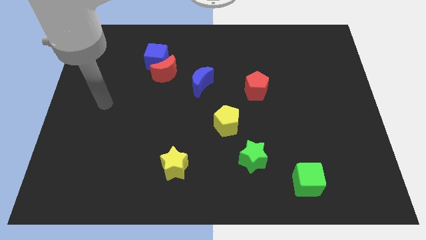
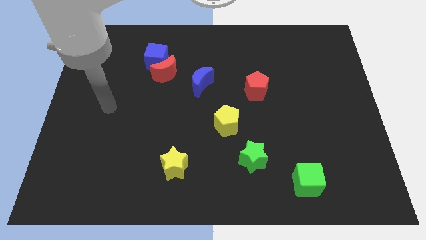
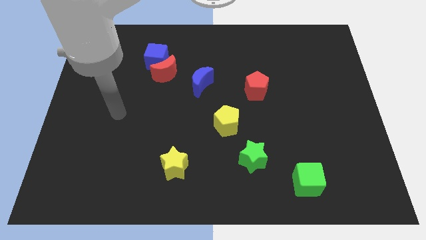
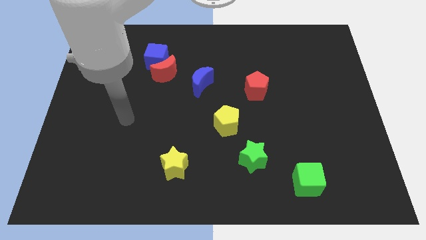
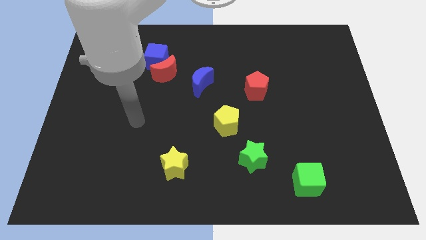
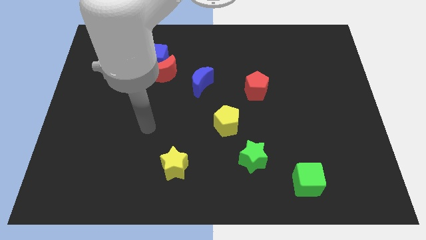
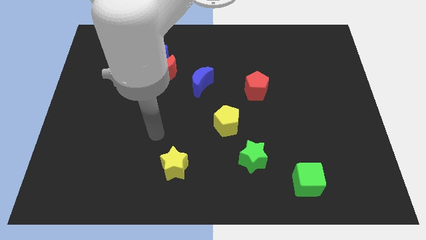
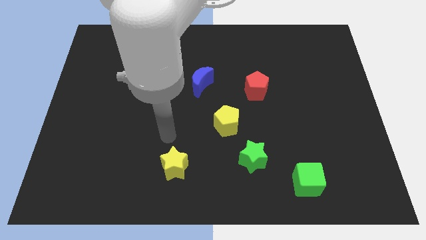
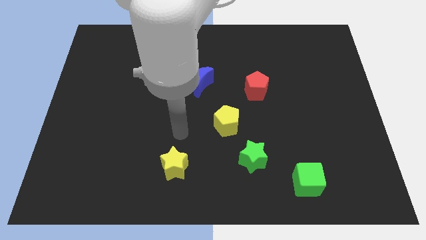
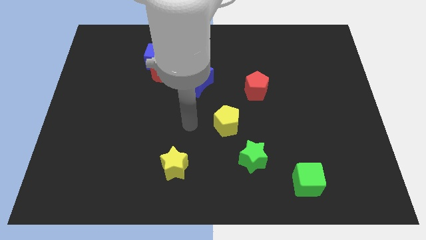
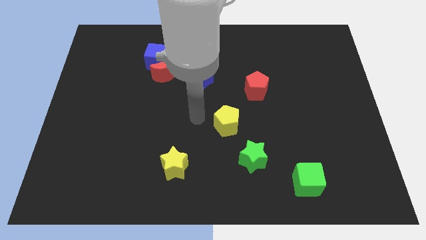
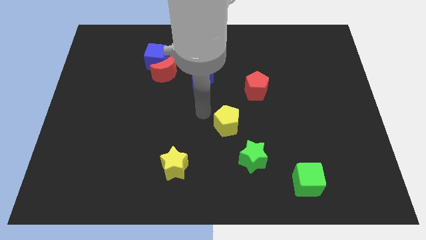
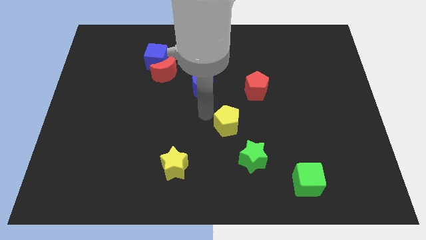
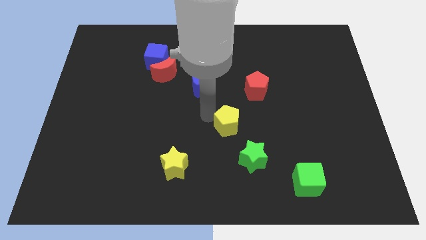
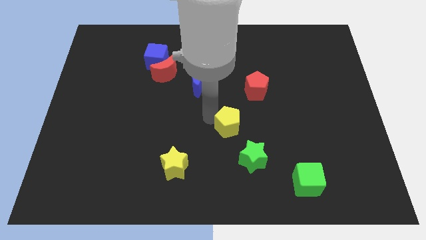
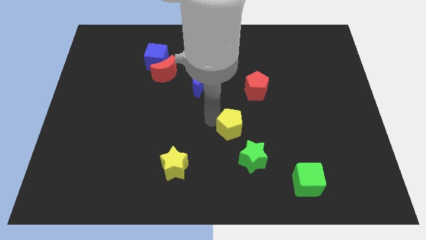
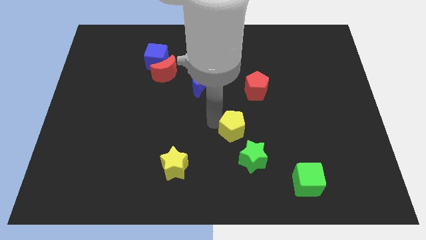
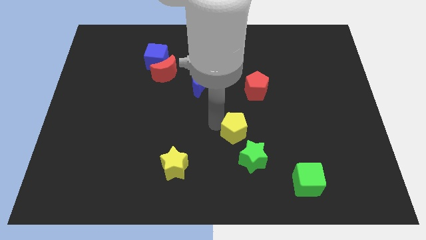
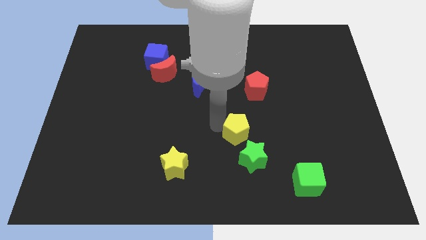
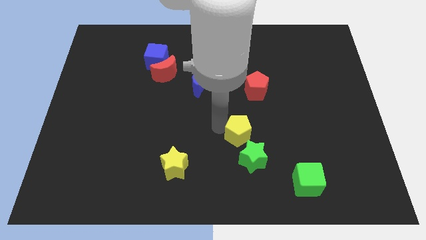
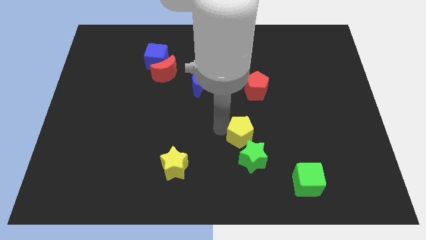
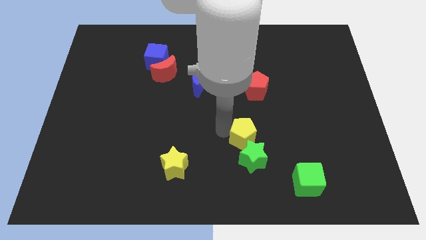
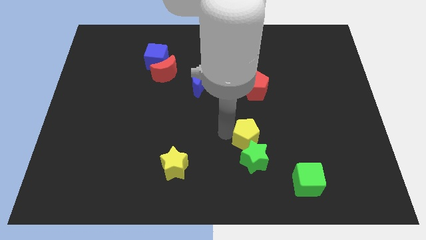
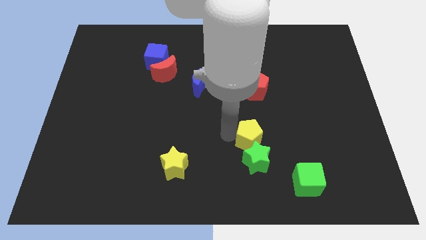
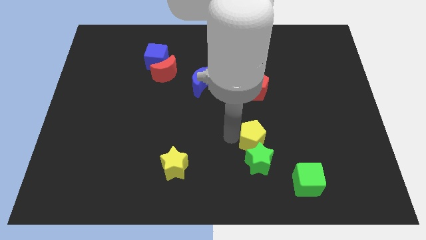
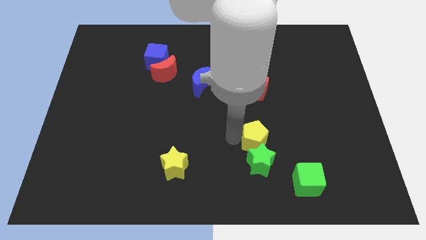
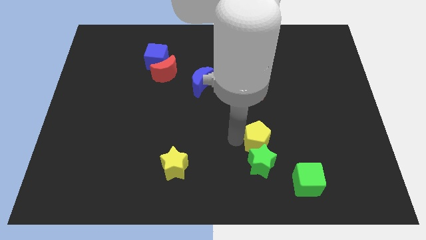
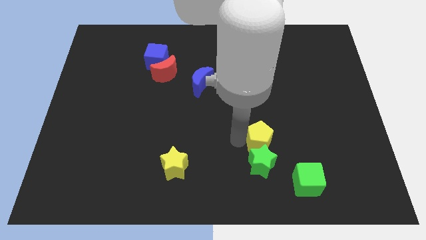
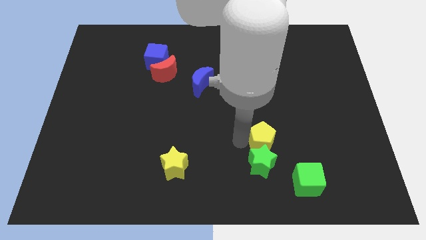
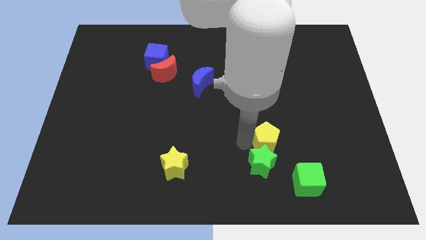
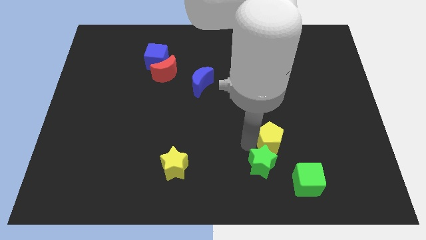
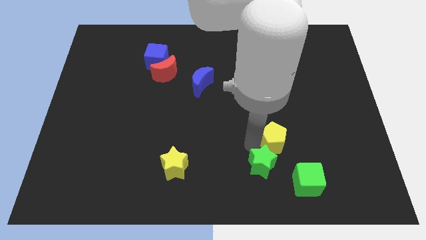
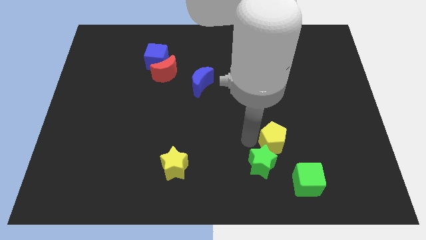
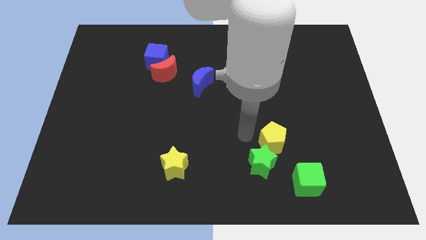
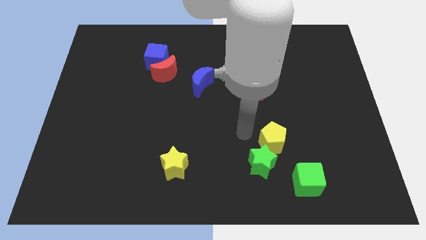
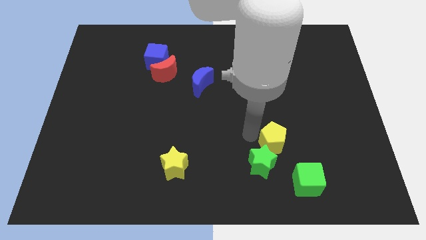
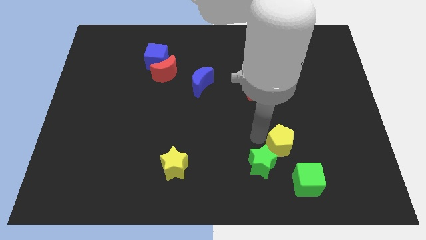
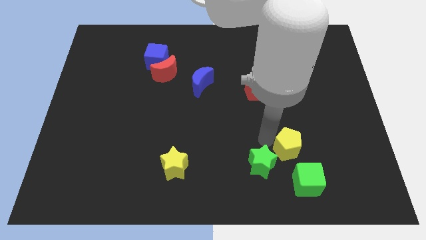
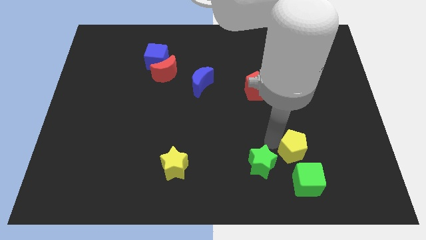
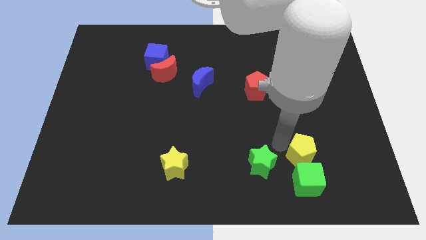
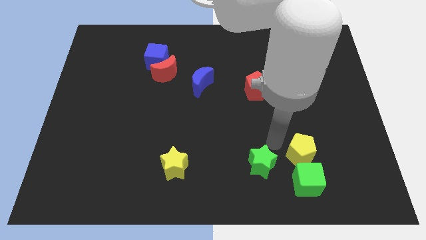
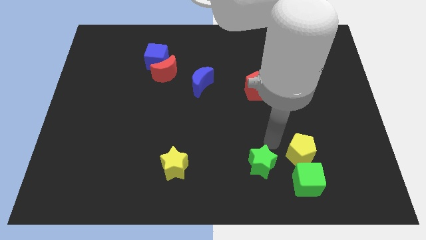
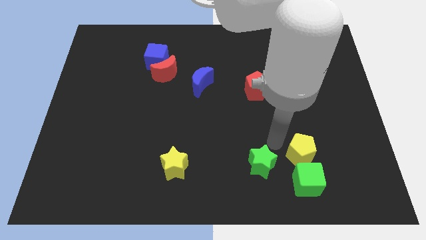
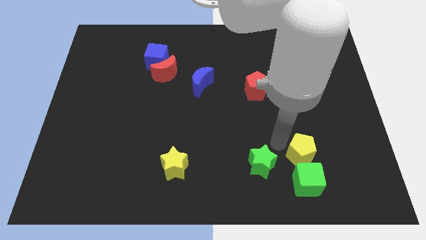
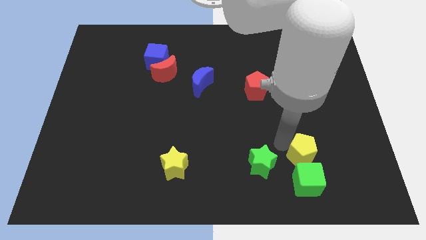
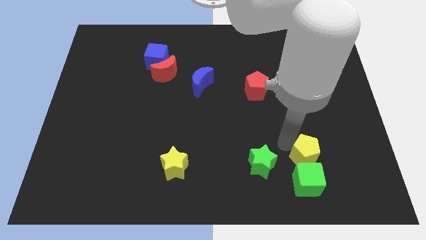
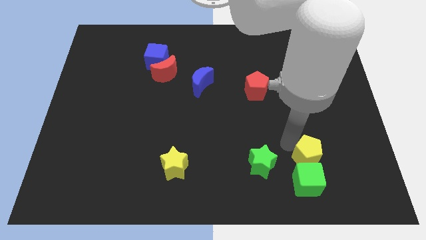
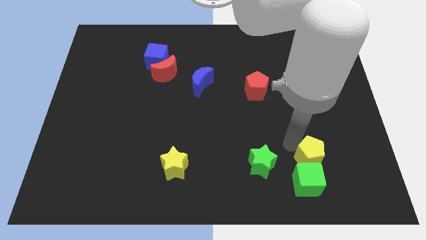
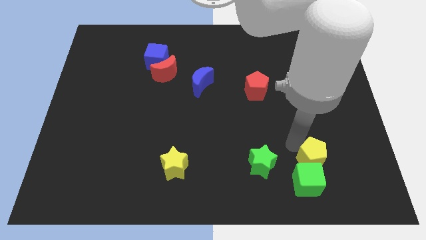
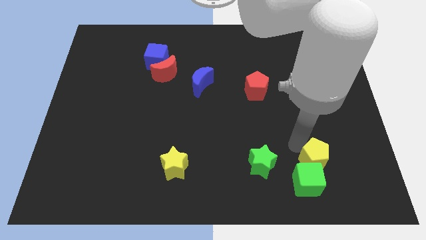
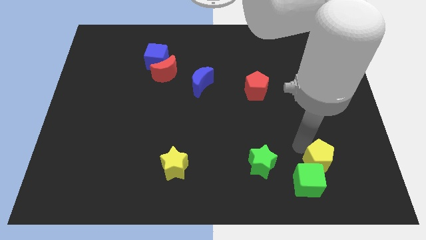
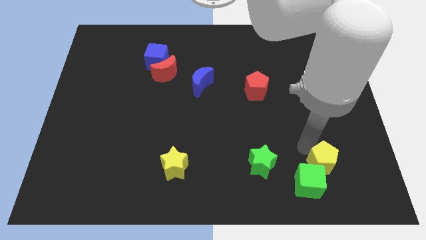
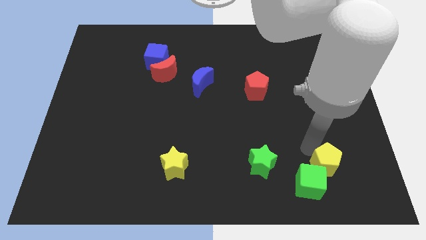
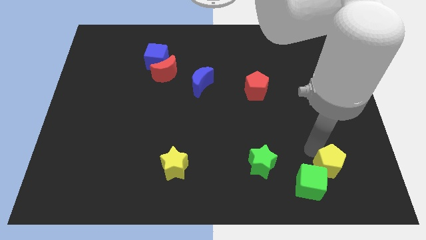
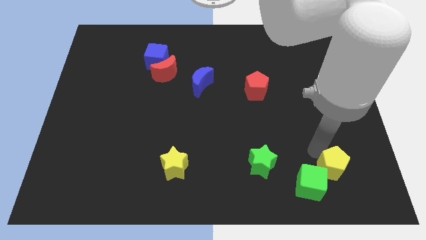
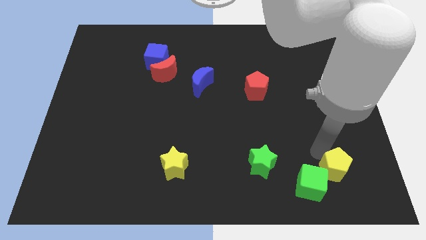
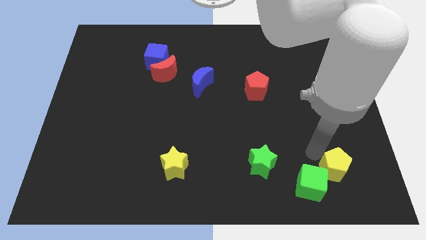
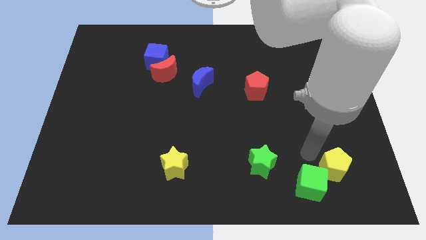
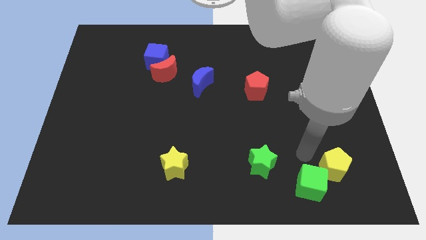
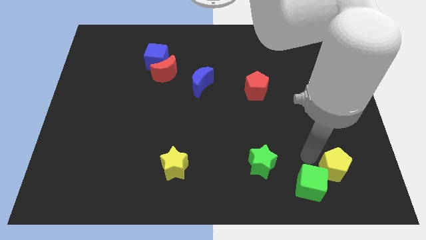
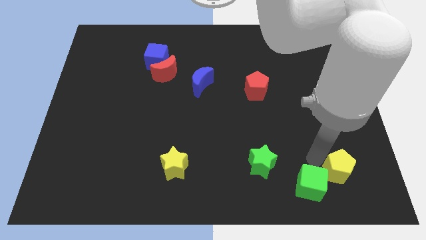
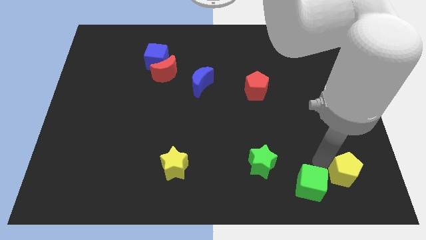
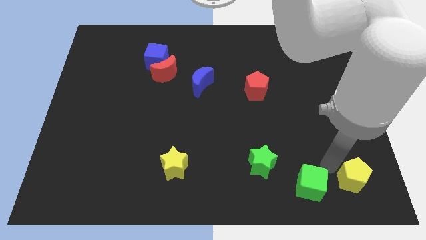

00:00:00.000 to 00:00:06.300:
slide the yellow pentagon to the bottom right of the board

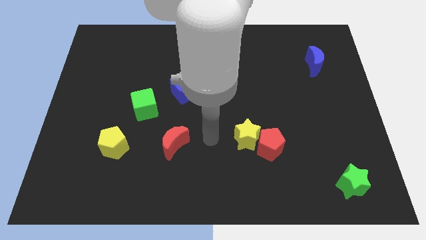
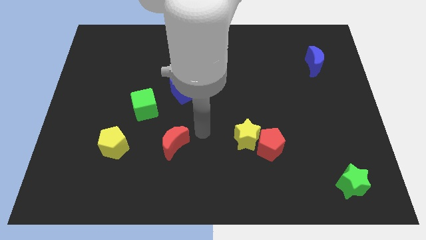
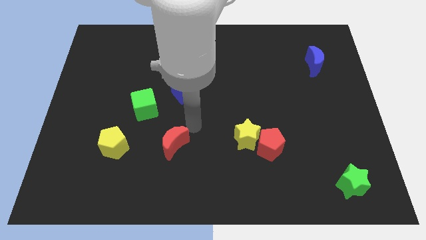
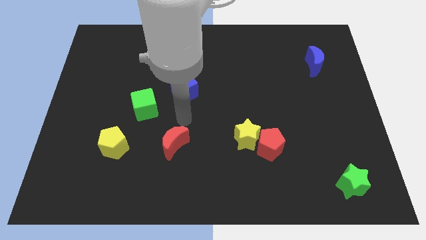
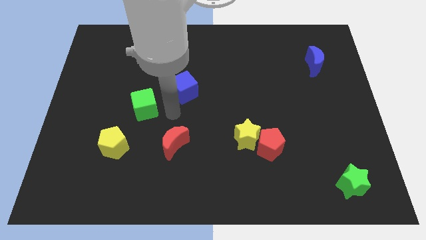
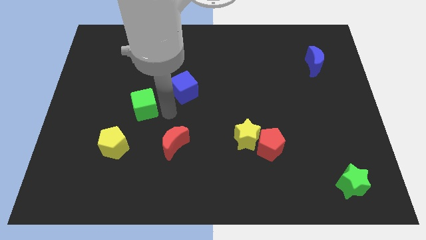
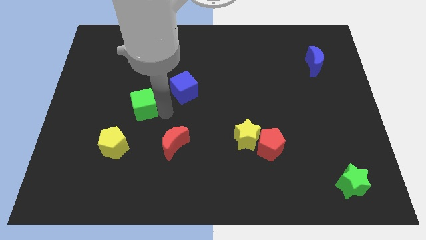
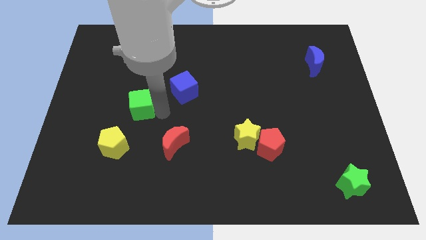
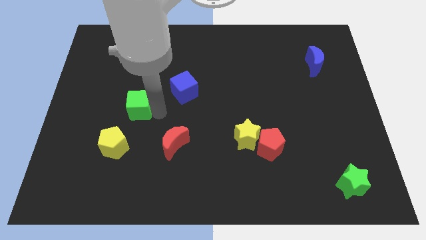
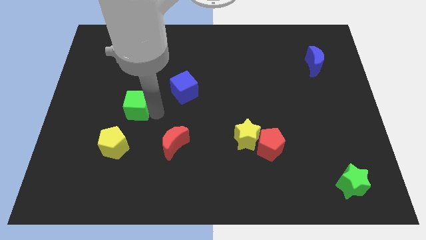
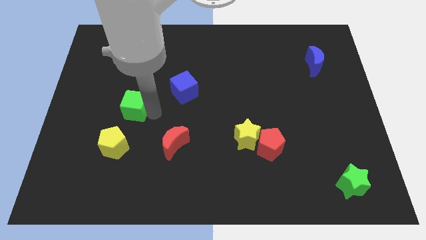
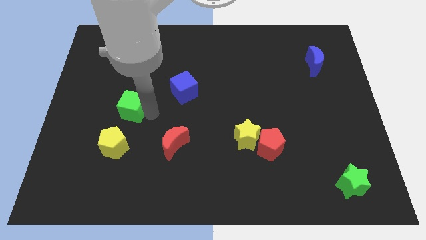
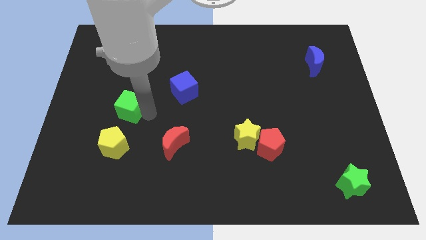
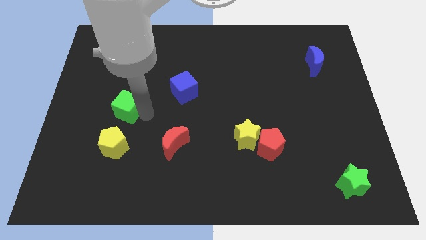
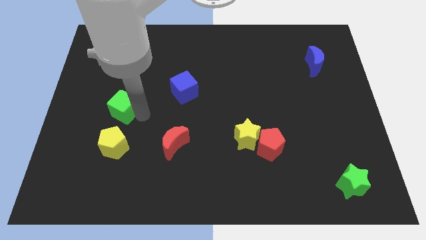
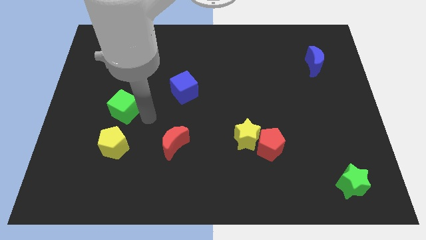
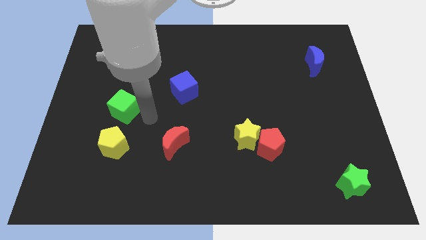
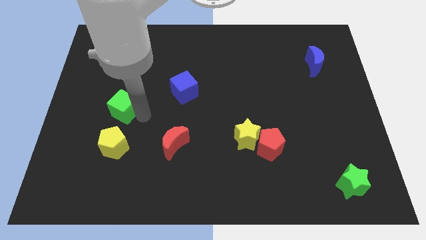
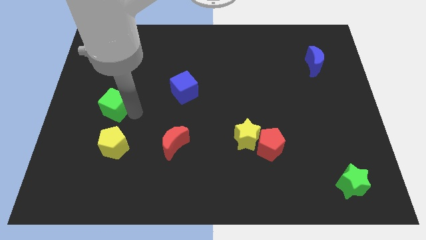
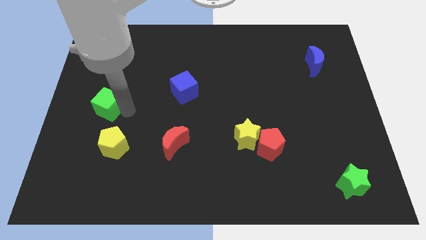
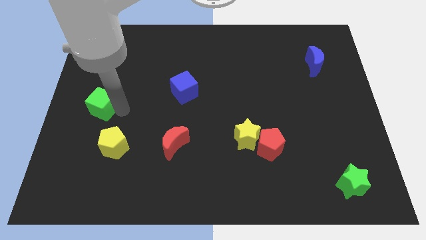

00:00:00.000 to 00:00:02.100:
move the green cube to the left side
